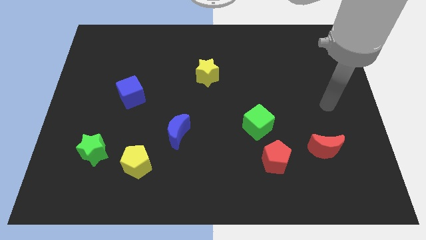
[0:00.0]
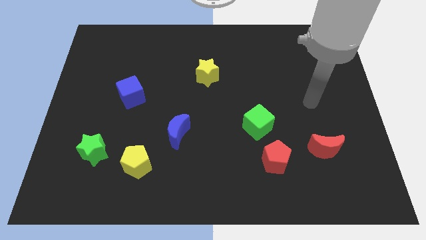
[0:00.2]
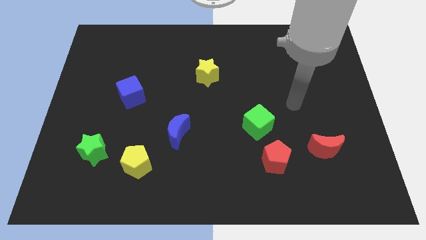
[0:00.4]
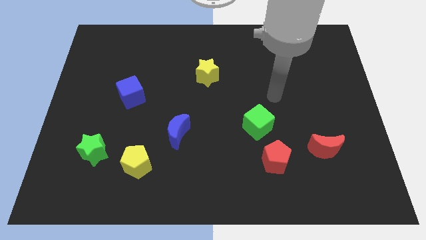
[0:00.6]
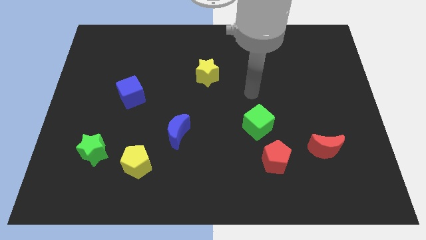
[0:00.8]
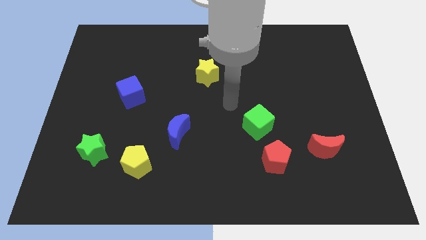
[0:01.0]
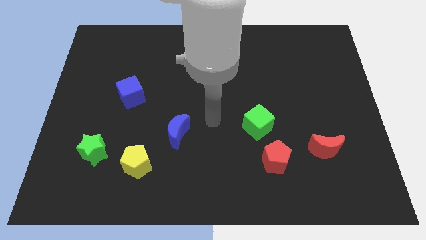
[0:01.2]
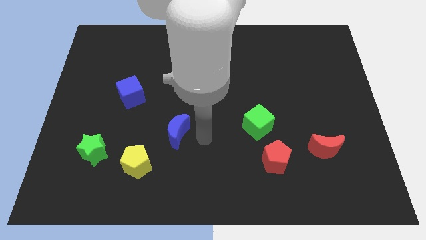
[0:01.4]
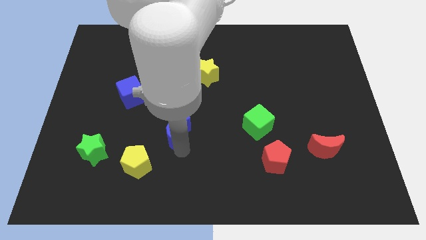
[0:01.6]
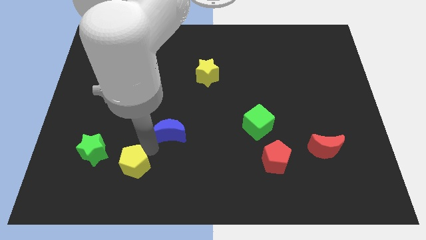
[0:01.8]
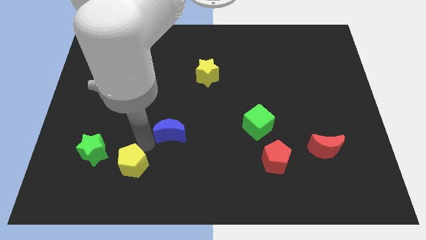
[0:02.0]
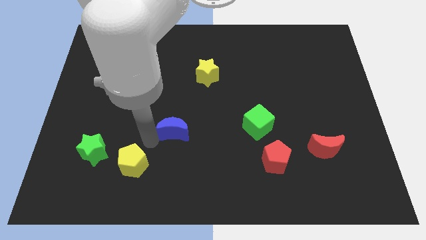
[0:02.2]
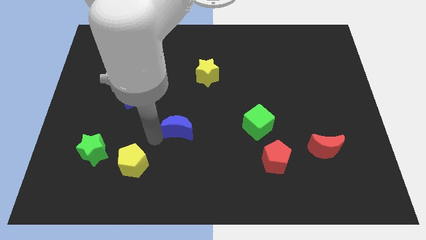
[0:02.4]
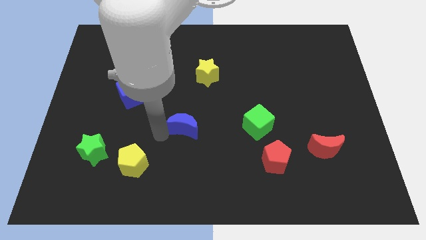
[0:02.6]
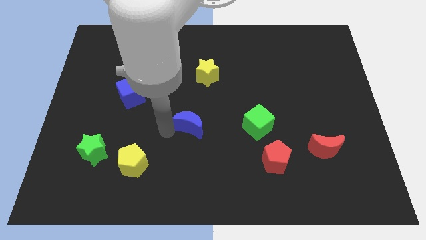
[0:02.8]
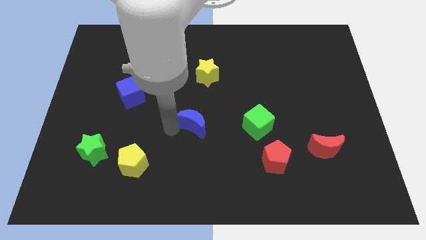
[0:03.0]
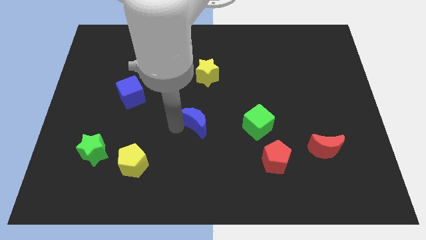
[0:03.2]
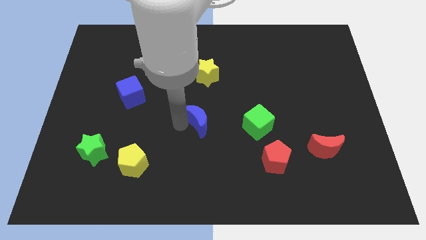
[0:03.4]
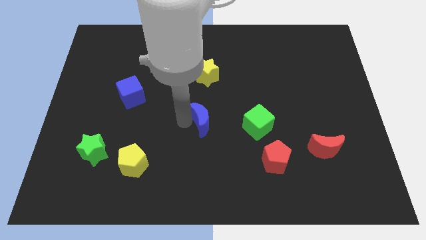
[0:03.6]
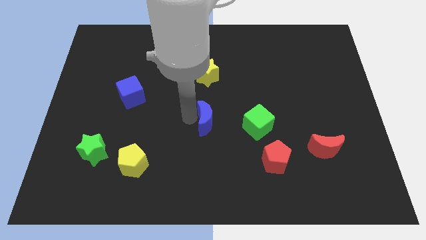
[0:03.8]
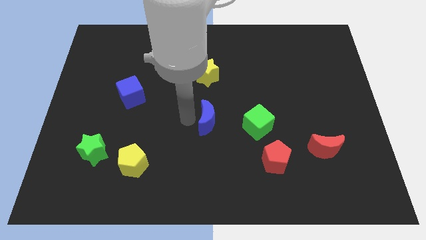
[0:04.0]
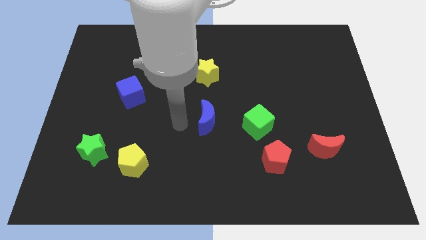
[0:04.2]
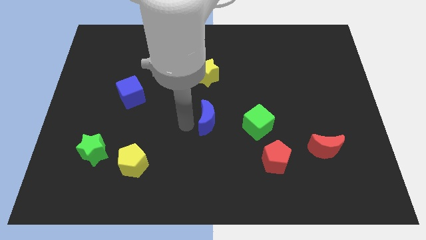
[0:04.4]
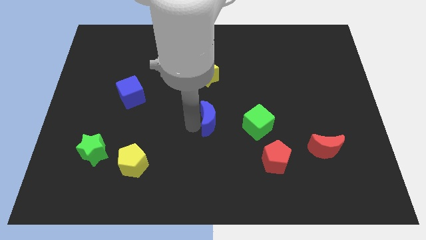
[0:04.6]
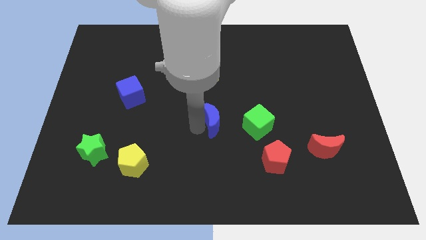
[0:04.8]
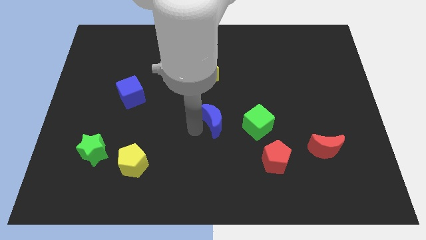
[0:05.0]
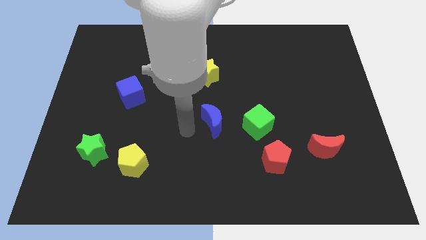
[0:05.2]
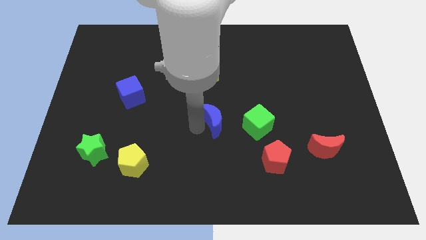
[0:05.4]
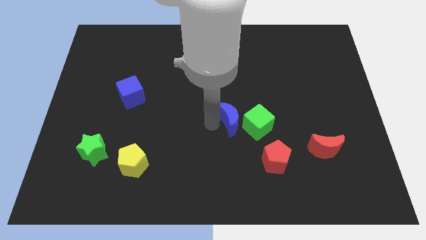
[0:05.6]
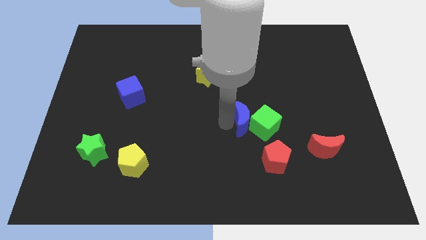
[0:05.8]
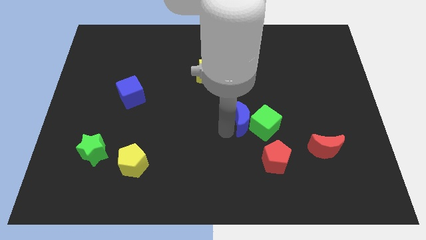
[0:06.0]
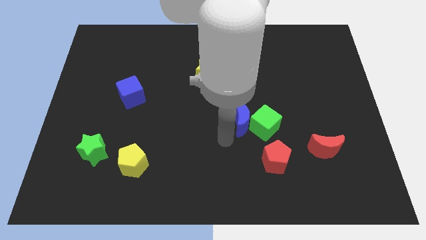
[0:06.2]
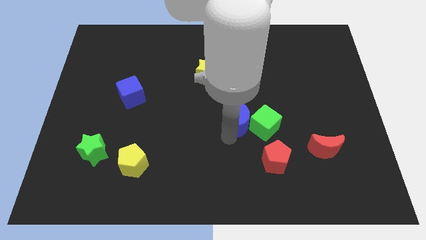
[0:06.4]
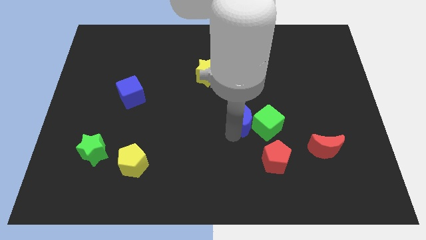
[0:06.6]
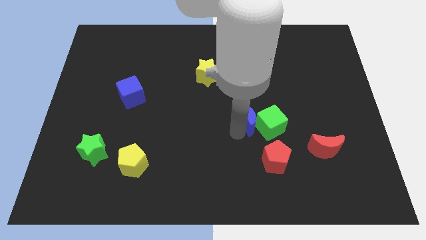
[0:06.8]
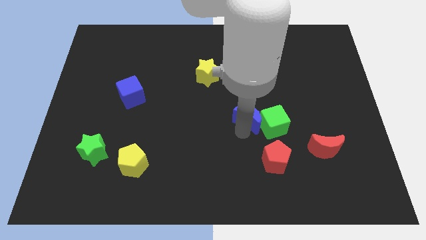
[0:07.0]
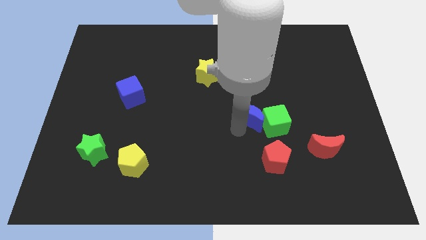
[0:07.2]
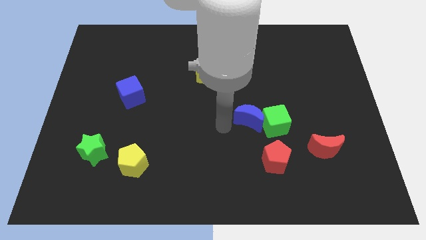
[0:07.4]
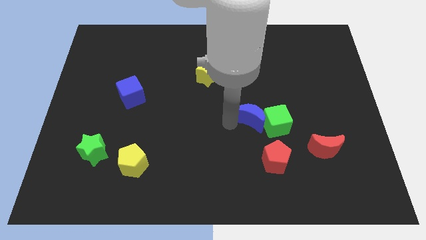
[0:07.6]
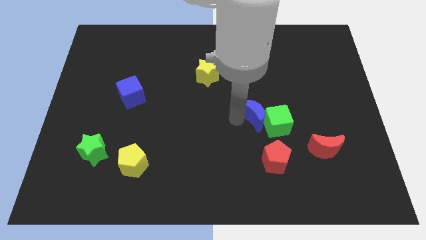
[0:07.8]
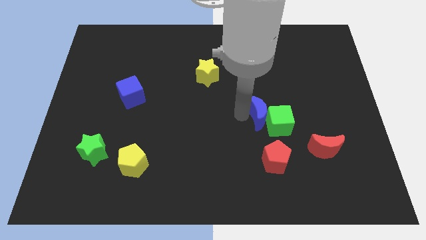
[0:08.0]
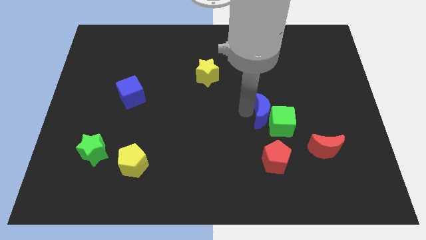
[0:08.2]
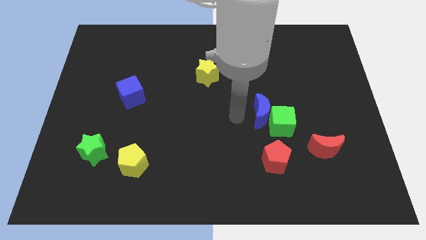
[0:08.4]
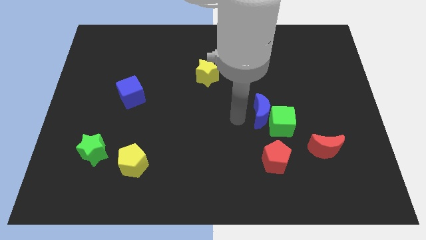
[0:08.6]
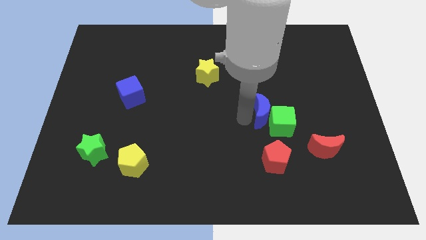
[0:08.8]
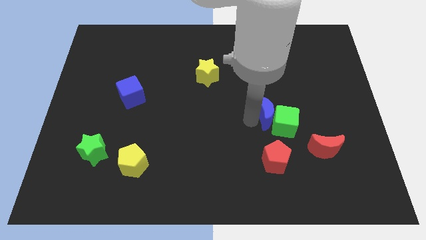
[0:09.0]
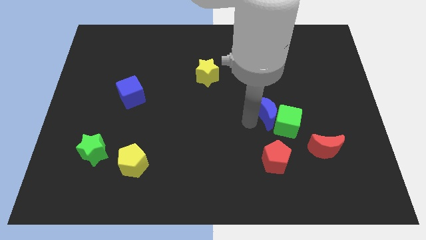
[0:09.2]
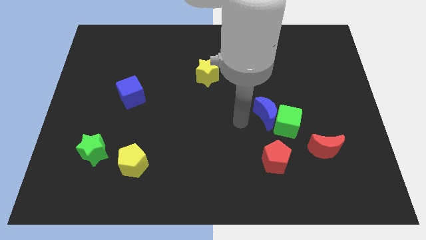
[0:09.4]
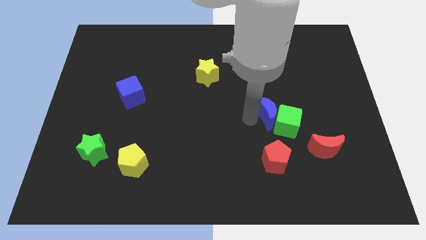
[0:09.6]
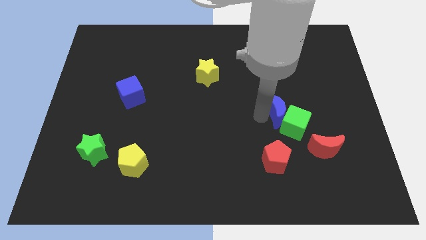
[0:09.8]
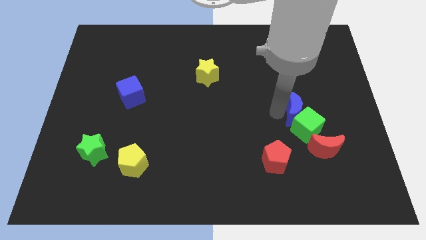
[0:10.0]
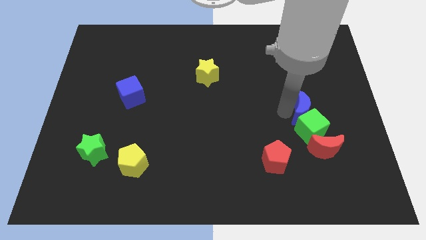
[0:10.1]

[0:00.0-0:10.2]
push the blue moon to the top side of the red moon

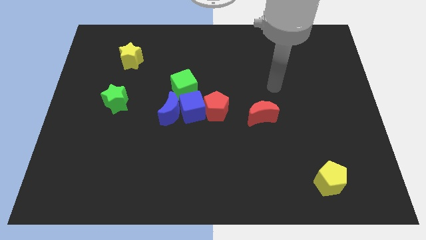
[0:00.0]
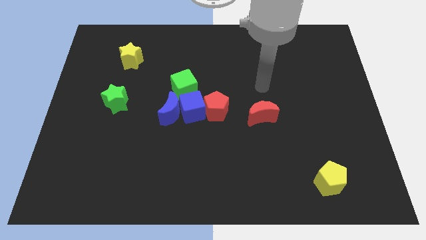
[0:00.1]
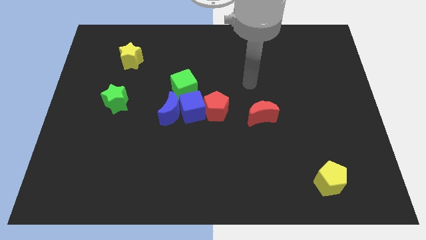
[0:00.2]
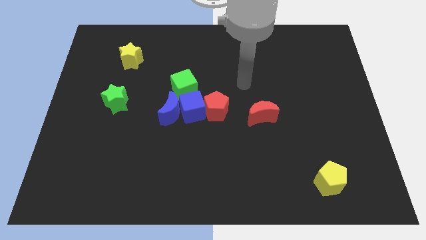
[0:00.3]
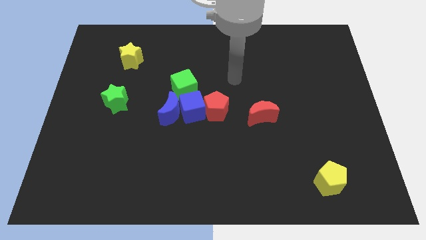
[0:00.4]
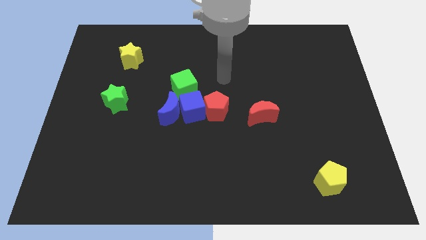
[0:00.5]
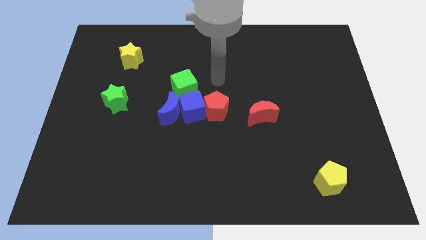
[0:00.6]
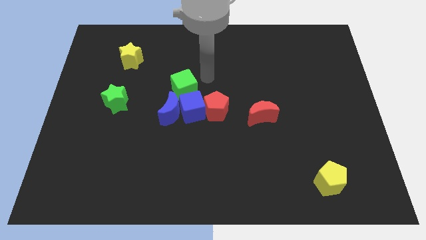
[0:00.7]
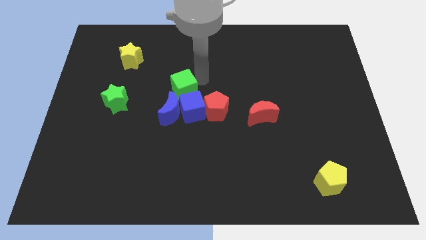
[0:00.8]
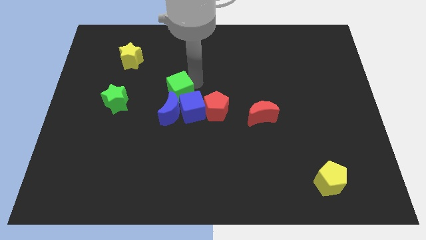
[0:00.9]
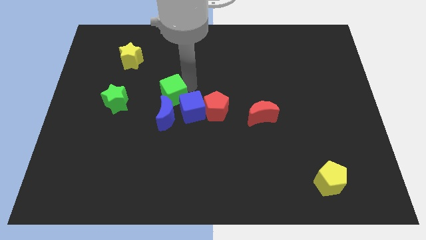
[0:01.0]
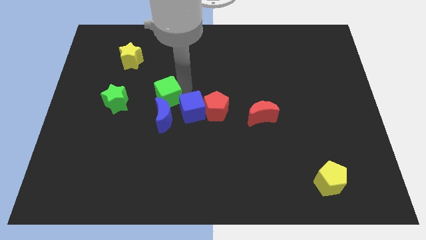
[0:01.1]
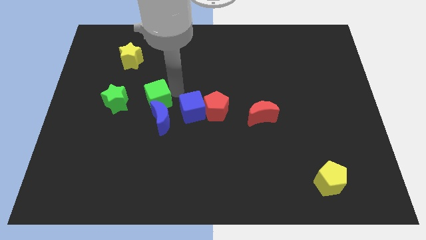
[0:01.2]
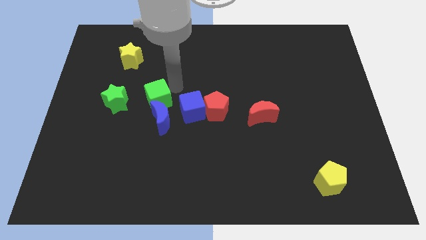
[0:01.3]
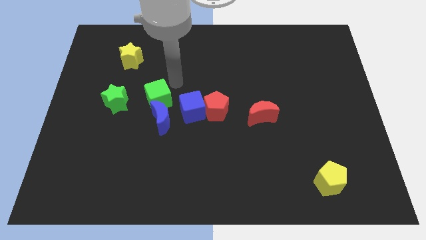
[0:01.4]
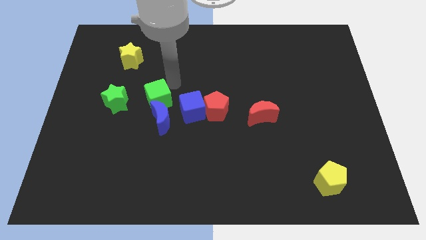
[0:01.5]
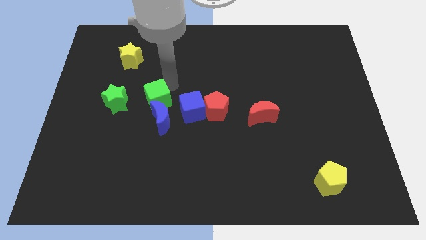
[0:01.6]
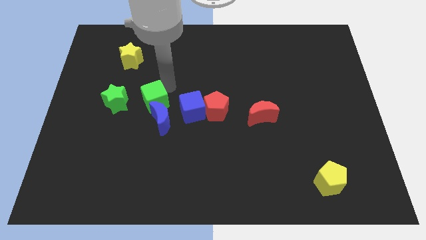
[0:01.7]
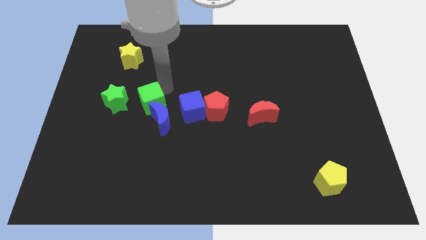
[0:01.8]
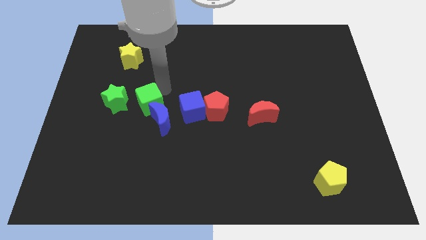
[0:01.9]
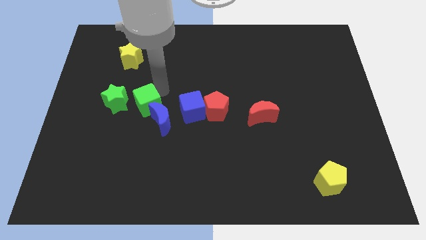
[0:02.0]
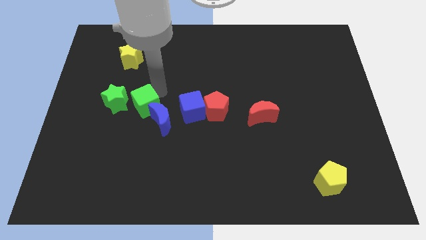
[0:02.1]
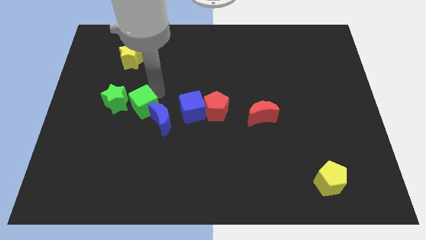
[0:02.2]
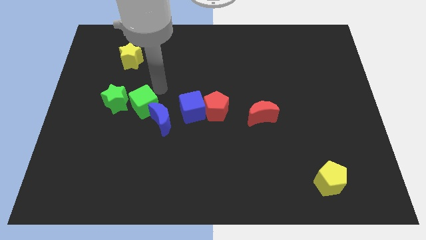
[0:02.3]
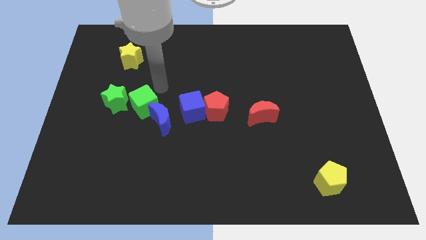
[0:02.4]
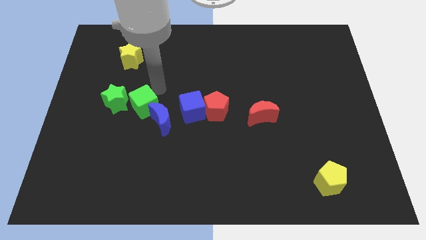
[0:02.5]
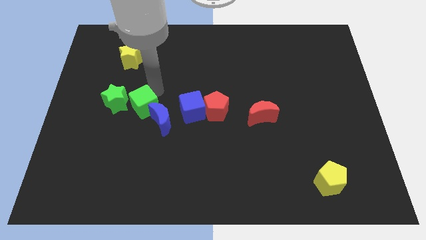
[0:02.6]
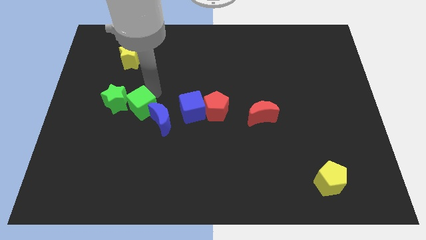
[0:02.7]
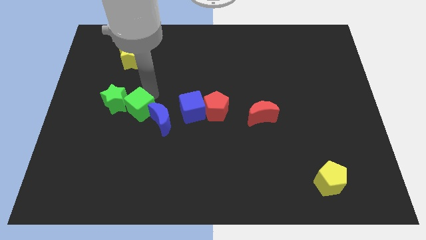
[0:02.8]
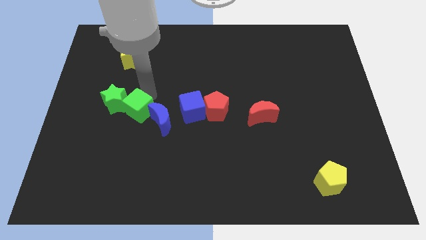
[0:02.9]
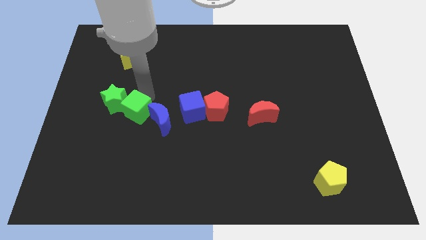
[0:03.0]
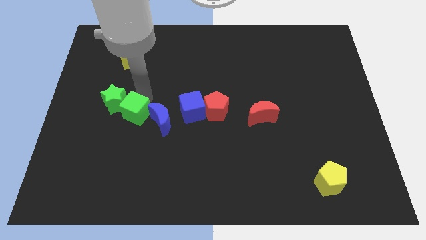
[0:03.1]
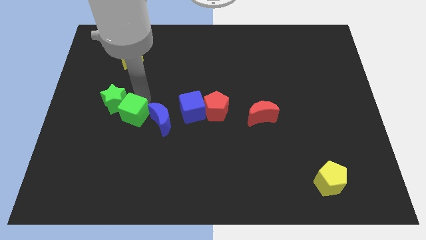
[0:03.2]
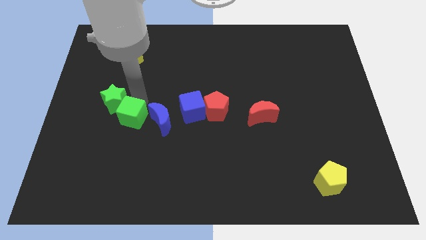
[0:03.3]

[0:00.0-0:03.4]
slide the green cube to the bottom of the green star
